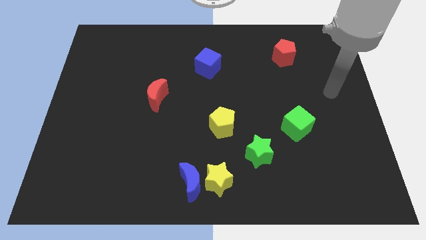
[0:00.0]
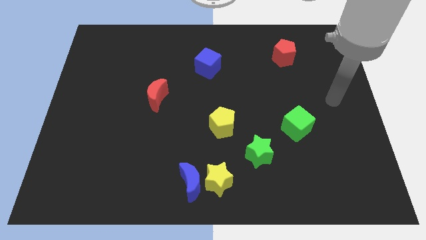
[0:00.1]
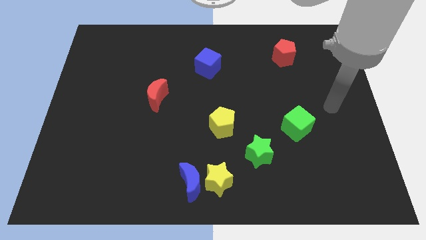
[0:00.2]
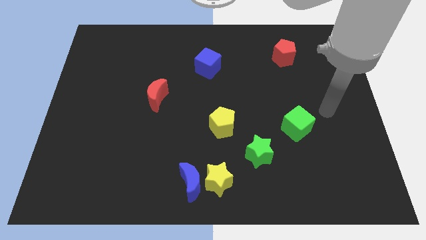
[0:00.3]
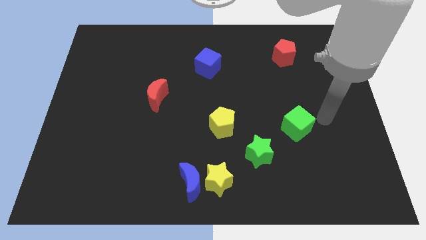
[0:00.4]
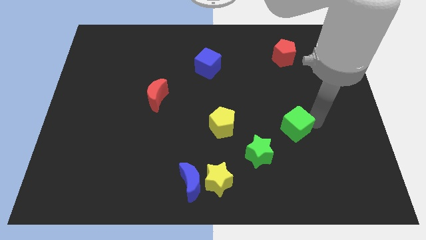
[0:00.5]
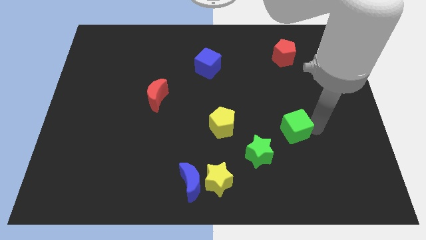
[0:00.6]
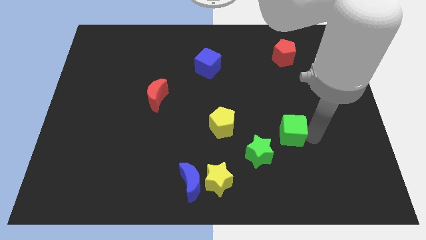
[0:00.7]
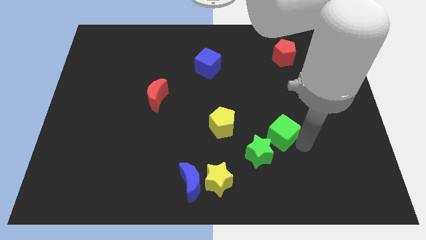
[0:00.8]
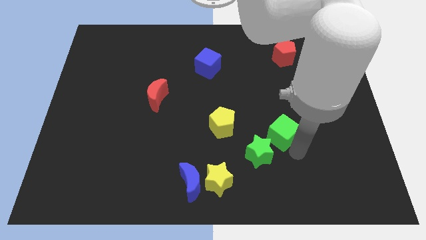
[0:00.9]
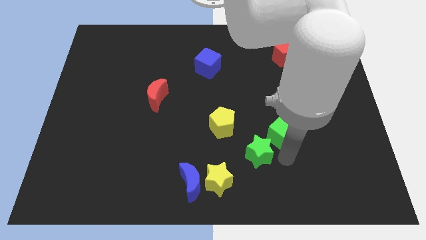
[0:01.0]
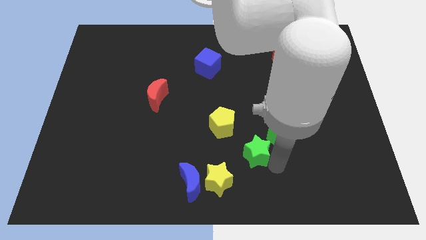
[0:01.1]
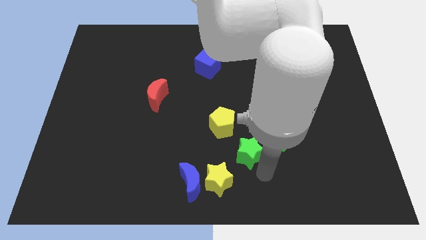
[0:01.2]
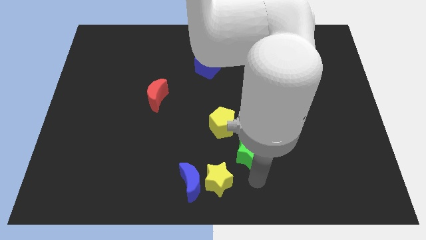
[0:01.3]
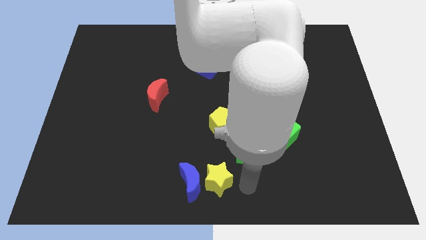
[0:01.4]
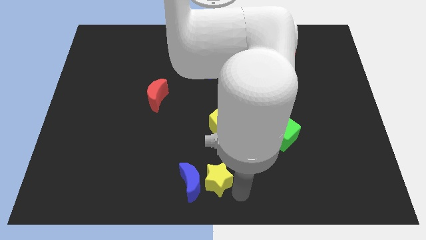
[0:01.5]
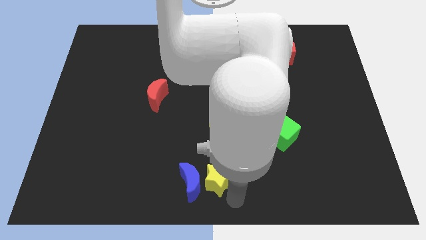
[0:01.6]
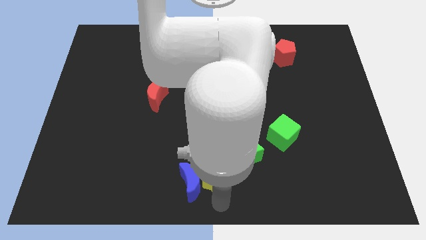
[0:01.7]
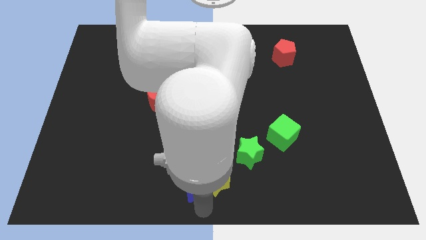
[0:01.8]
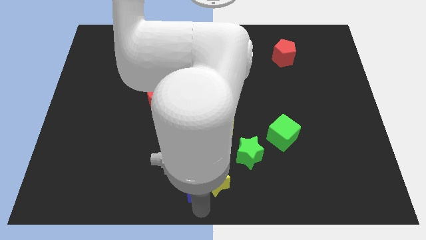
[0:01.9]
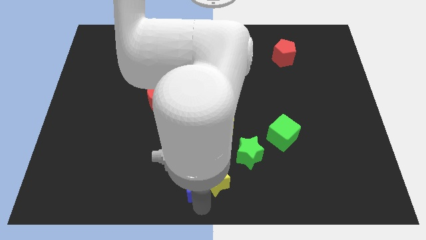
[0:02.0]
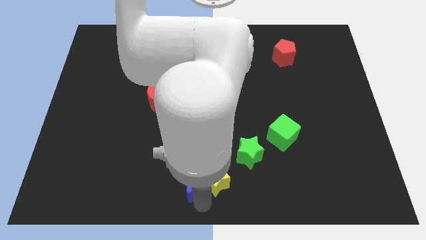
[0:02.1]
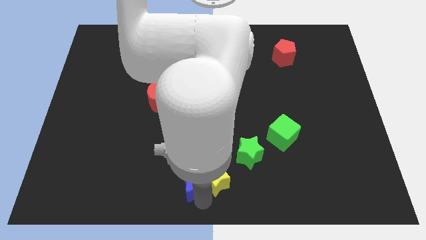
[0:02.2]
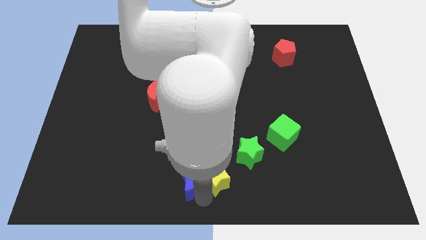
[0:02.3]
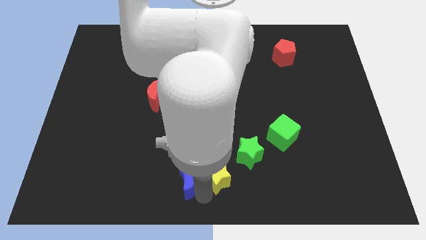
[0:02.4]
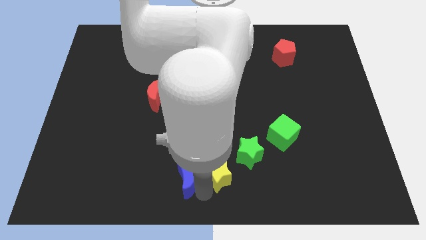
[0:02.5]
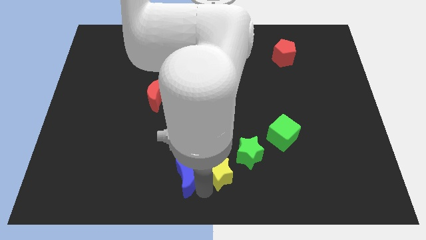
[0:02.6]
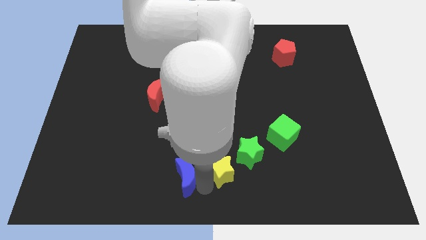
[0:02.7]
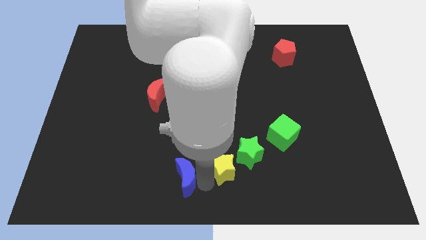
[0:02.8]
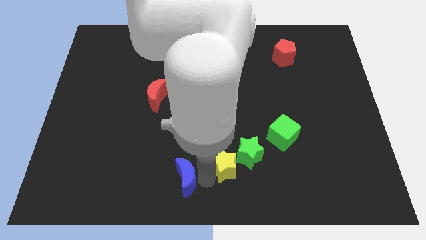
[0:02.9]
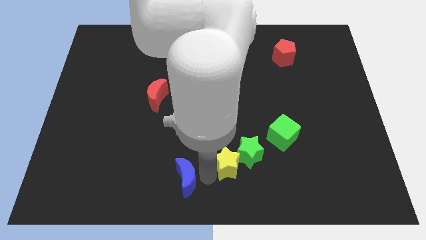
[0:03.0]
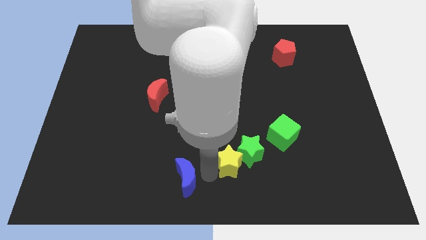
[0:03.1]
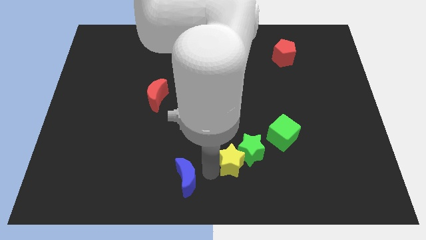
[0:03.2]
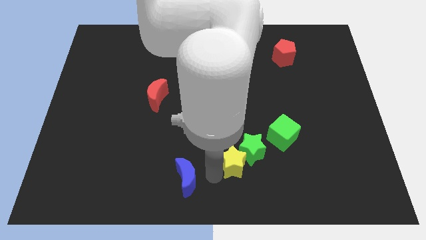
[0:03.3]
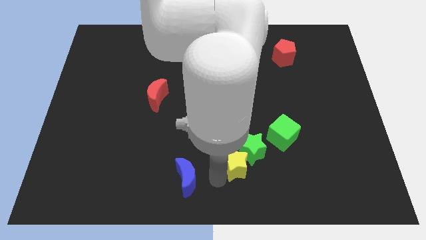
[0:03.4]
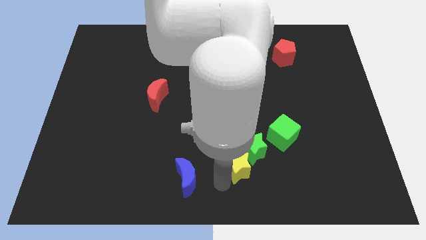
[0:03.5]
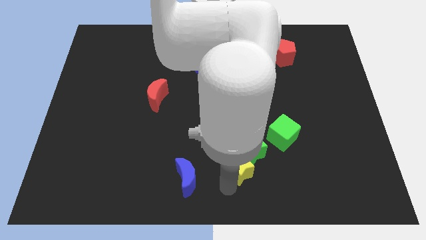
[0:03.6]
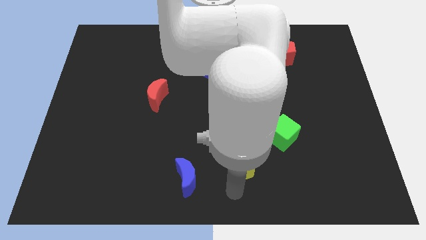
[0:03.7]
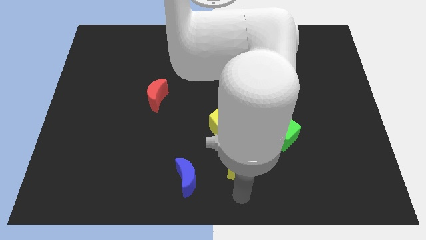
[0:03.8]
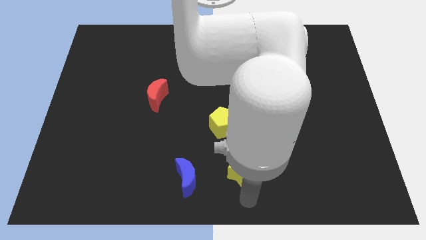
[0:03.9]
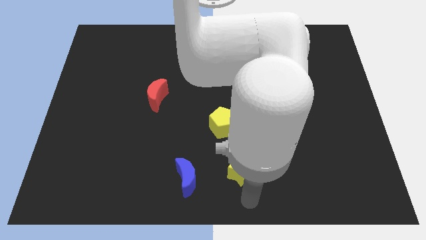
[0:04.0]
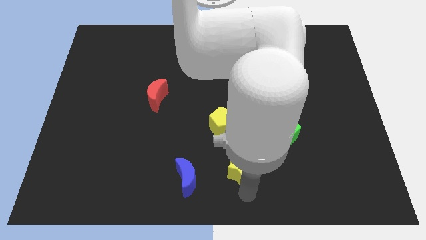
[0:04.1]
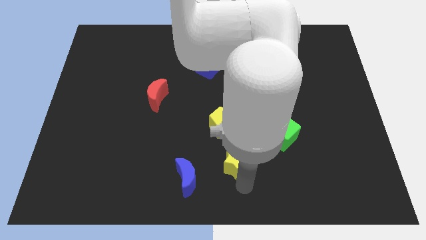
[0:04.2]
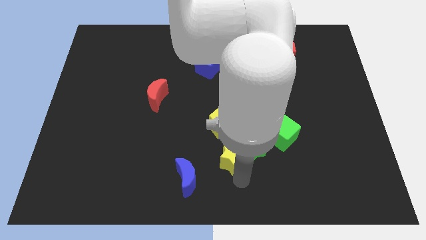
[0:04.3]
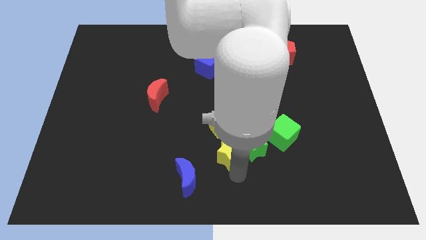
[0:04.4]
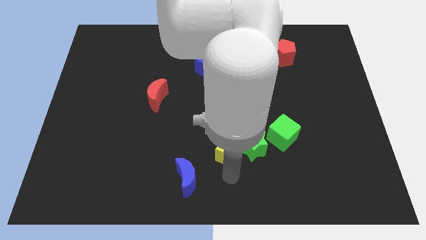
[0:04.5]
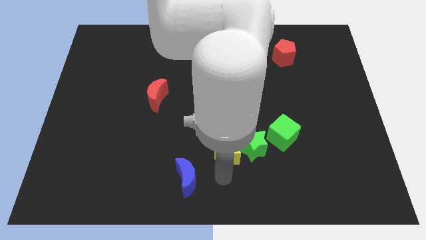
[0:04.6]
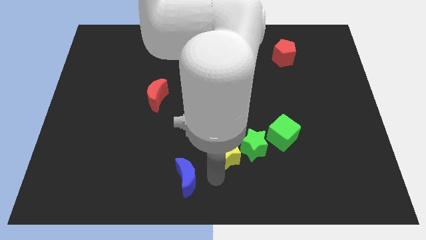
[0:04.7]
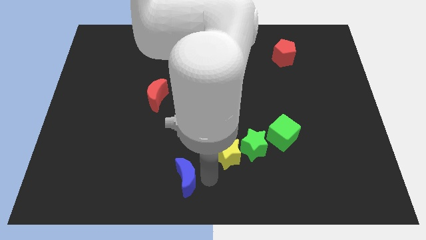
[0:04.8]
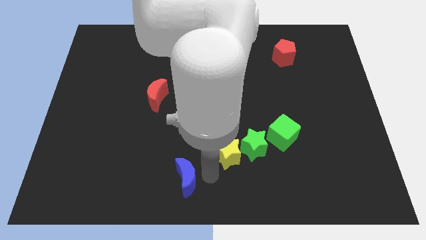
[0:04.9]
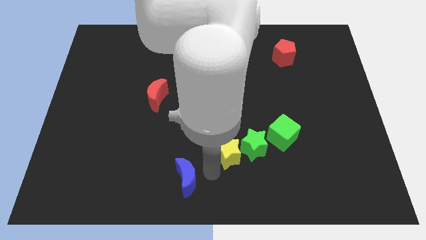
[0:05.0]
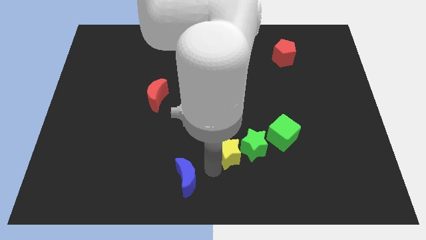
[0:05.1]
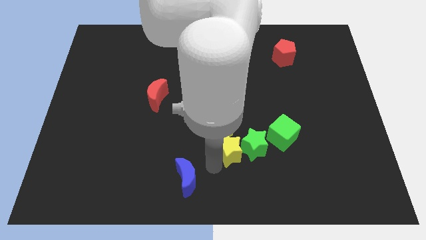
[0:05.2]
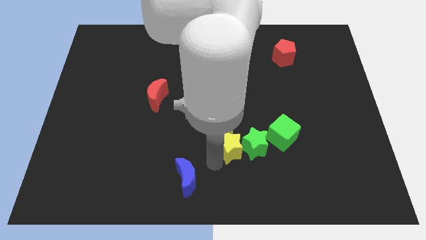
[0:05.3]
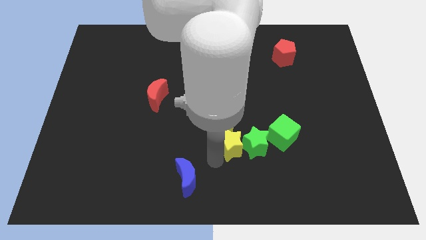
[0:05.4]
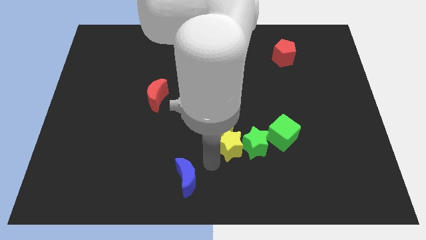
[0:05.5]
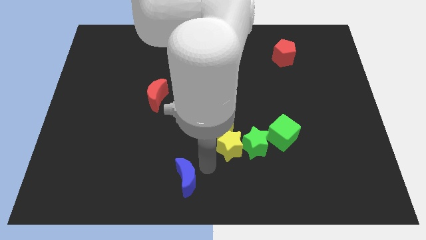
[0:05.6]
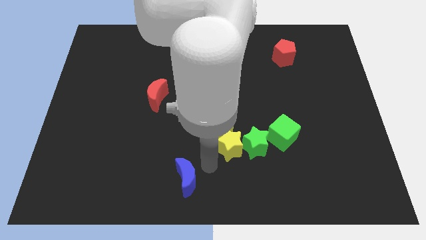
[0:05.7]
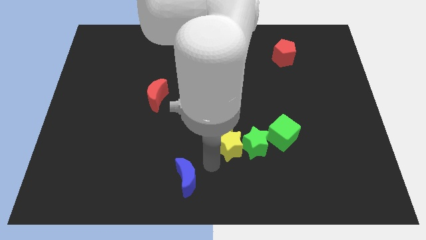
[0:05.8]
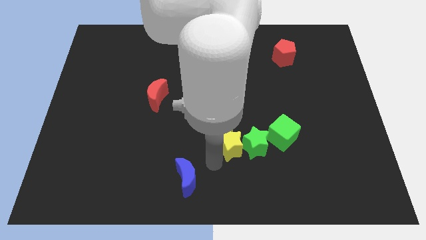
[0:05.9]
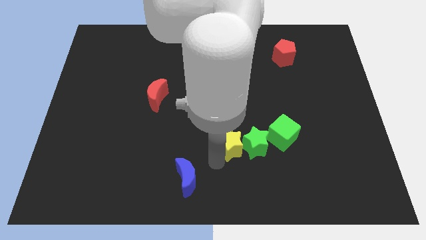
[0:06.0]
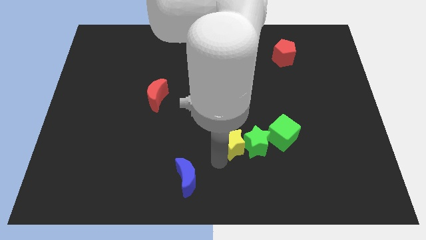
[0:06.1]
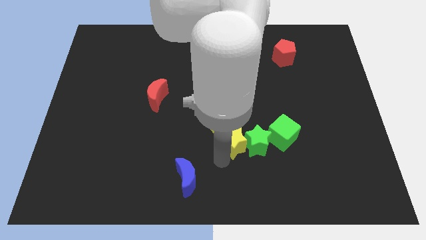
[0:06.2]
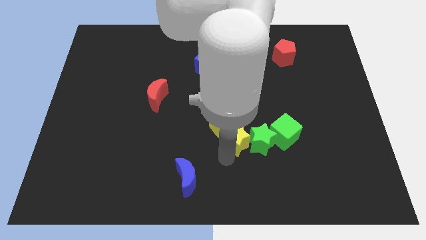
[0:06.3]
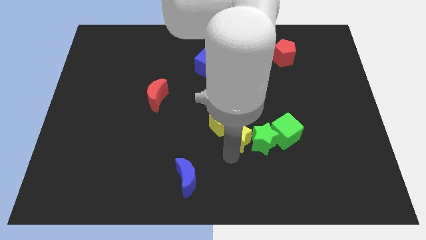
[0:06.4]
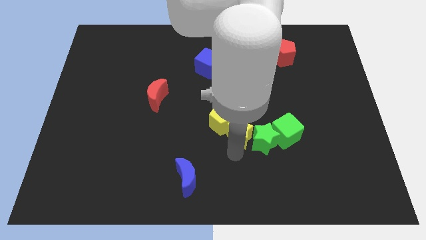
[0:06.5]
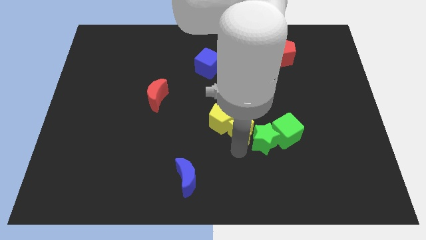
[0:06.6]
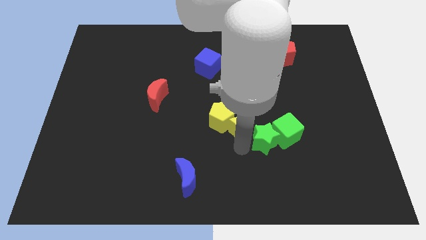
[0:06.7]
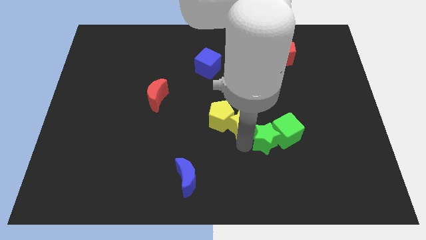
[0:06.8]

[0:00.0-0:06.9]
put the yellow star above the green star

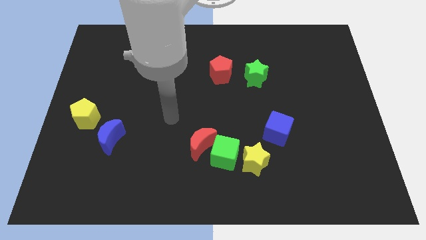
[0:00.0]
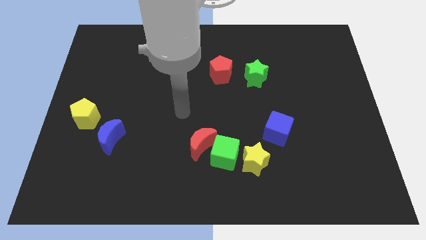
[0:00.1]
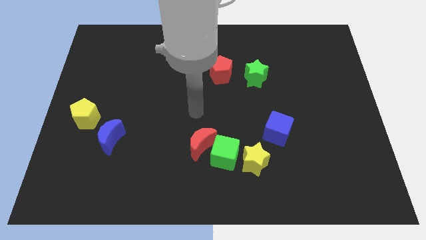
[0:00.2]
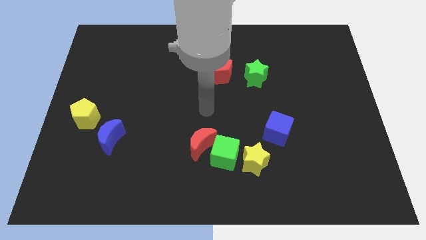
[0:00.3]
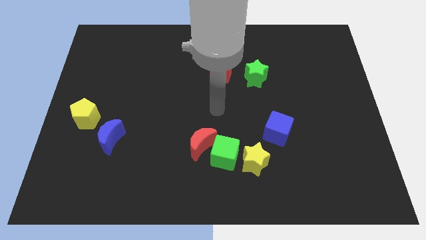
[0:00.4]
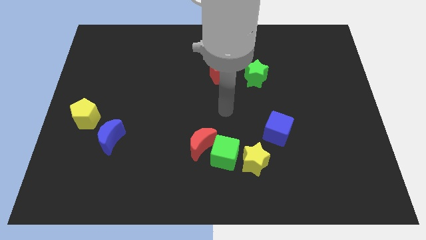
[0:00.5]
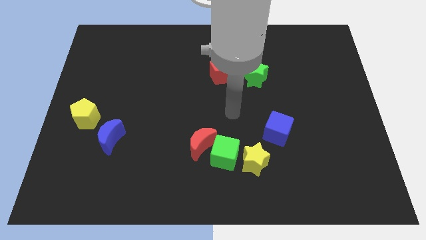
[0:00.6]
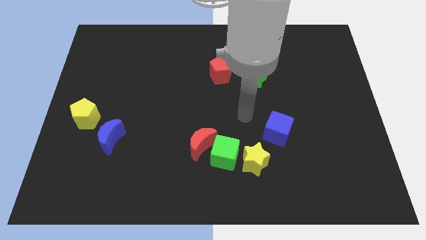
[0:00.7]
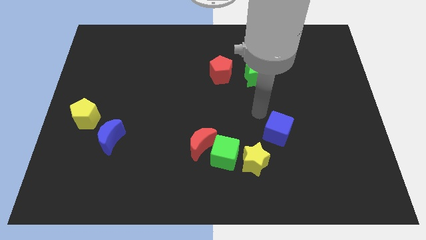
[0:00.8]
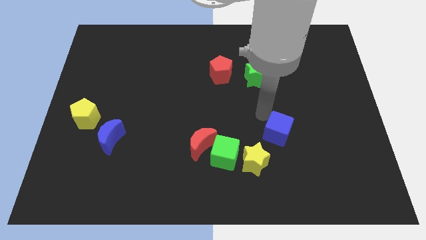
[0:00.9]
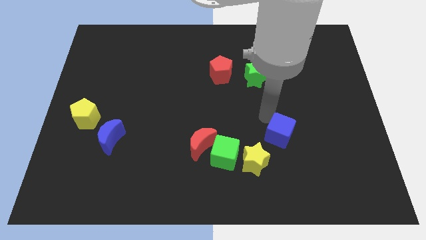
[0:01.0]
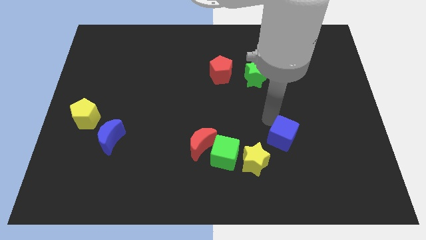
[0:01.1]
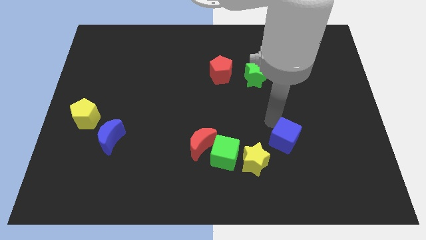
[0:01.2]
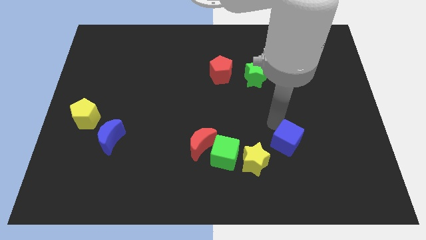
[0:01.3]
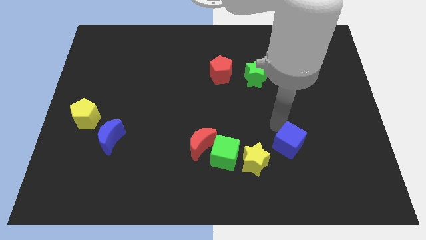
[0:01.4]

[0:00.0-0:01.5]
move the blue cube just right of the yellow star
